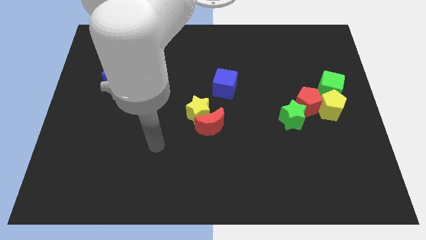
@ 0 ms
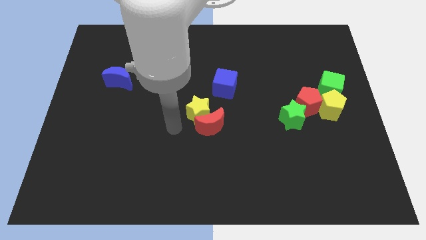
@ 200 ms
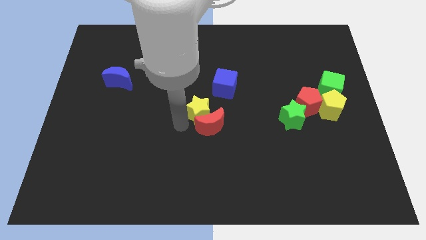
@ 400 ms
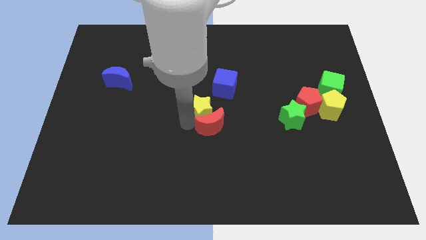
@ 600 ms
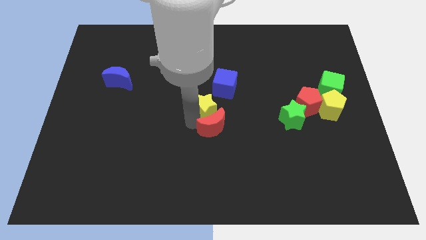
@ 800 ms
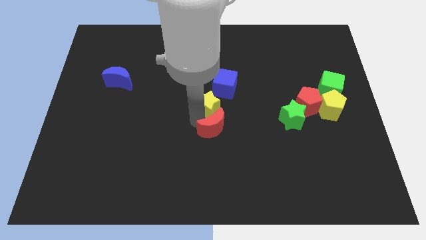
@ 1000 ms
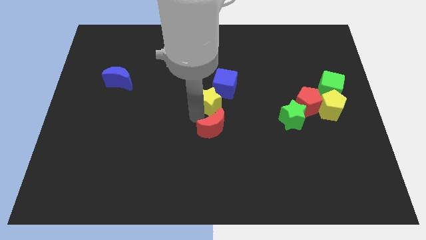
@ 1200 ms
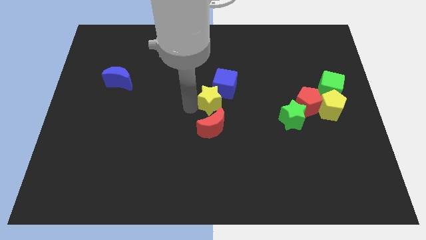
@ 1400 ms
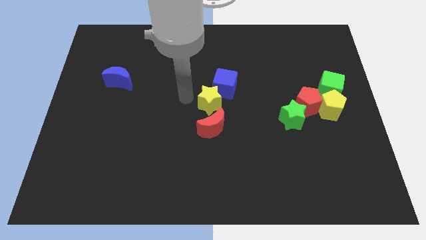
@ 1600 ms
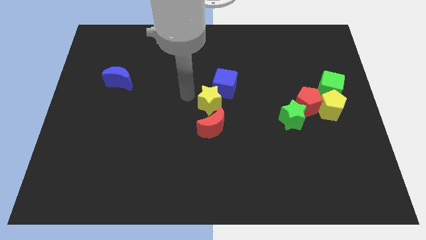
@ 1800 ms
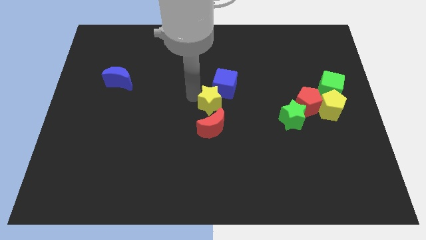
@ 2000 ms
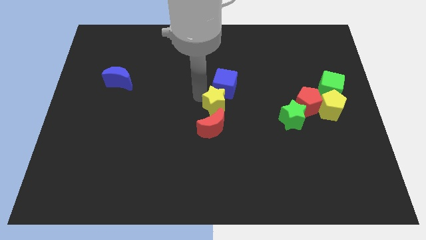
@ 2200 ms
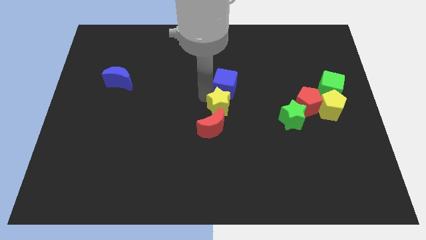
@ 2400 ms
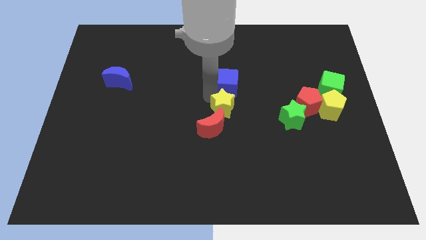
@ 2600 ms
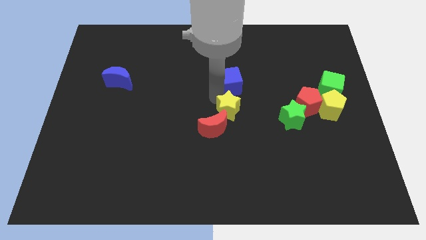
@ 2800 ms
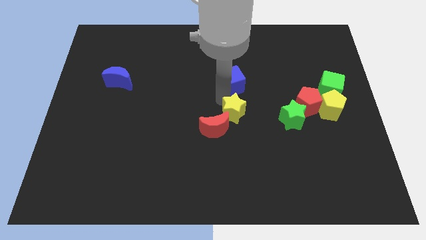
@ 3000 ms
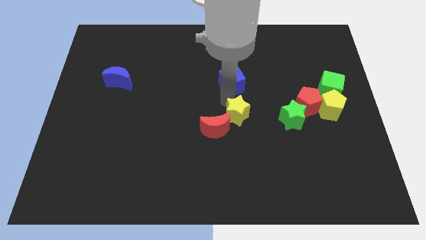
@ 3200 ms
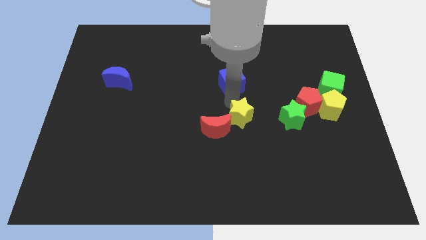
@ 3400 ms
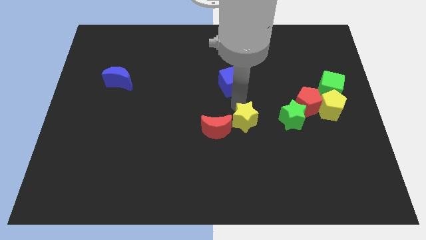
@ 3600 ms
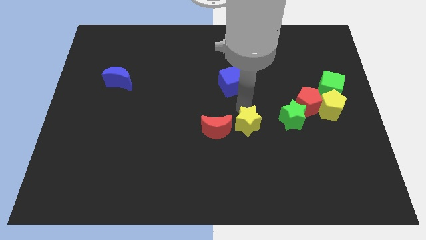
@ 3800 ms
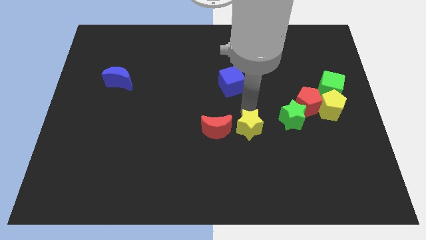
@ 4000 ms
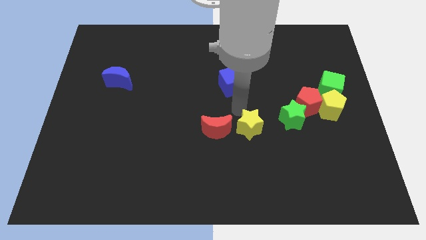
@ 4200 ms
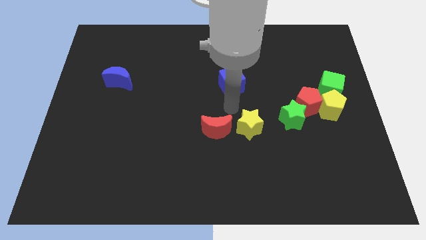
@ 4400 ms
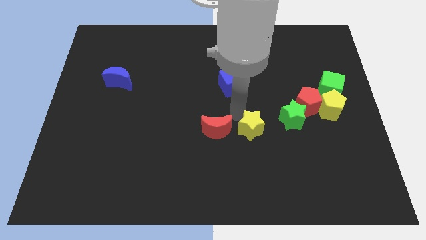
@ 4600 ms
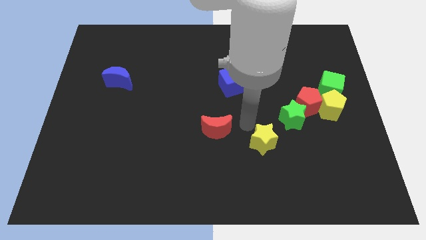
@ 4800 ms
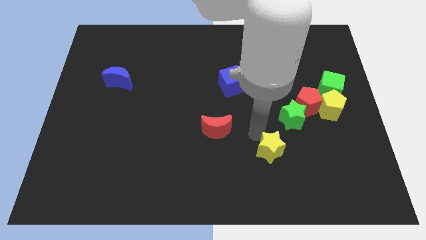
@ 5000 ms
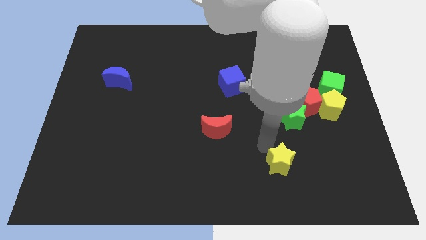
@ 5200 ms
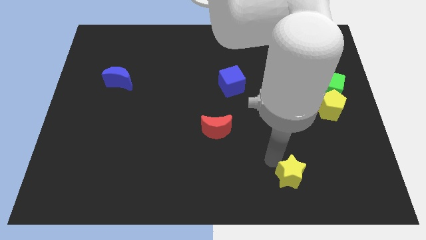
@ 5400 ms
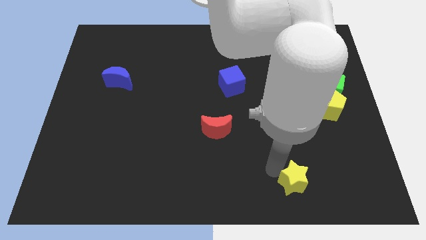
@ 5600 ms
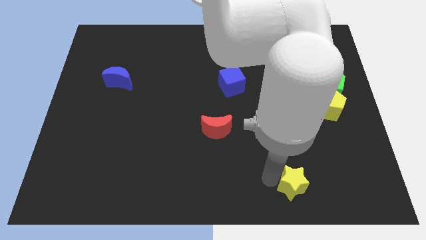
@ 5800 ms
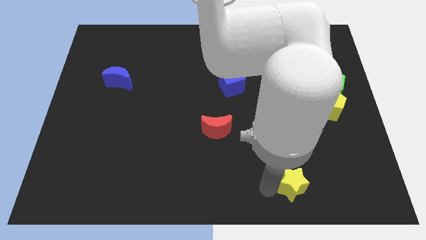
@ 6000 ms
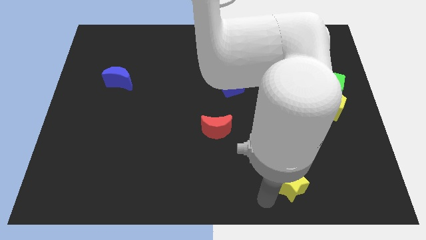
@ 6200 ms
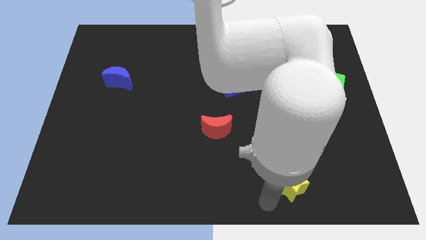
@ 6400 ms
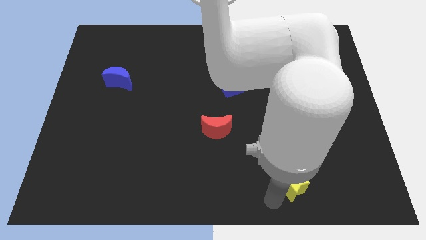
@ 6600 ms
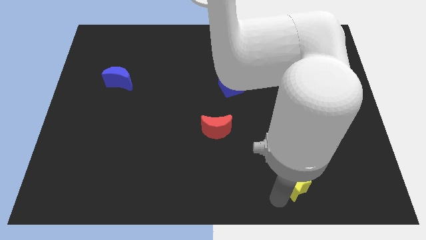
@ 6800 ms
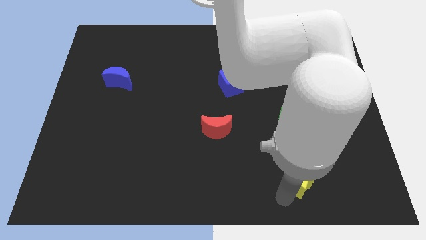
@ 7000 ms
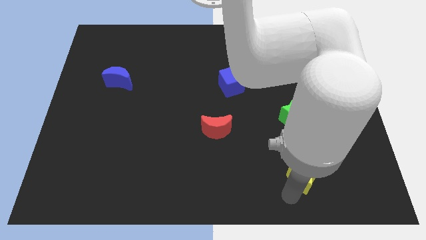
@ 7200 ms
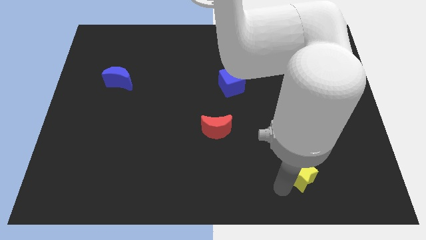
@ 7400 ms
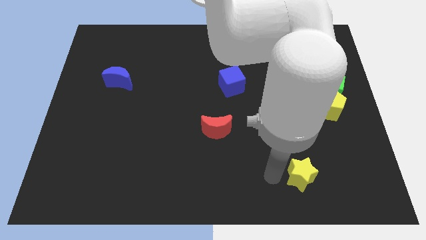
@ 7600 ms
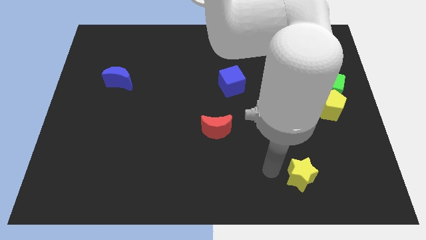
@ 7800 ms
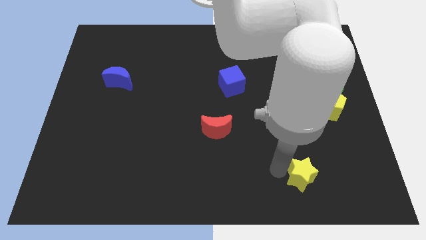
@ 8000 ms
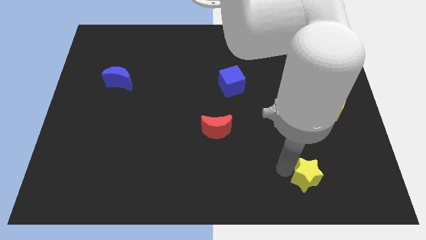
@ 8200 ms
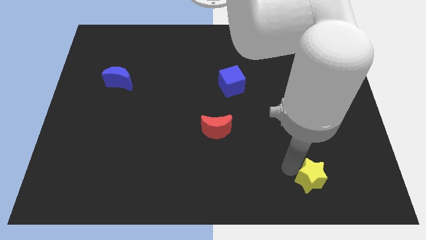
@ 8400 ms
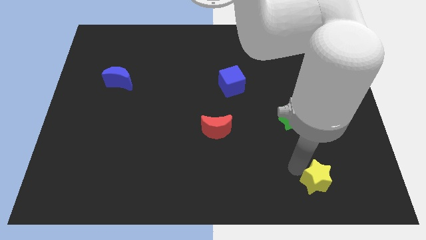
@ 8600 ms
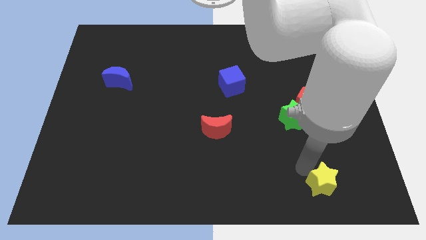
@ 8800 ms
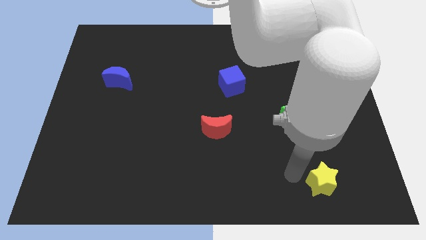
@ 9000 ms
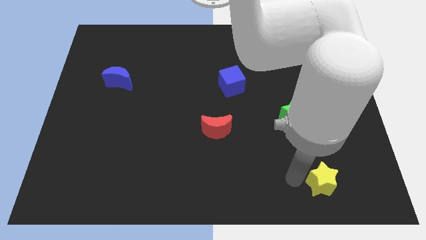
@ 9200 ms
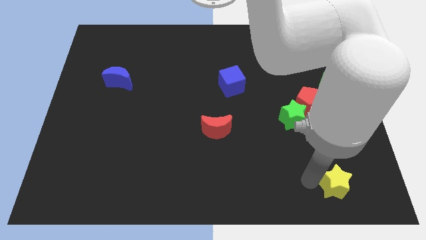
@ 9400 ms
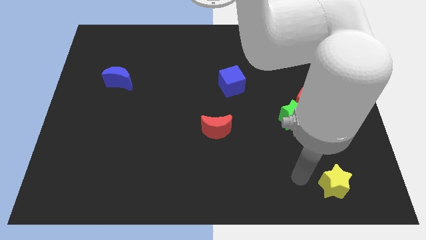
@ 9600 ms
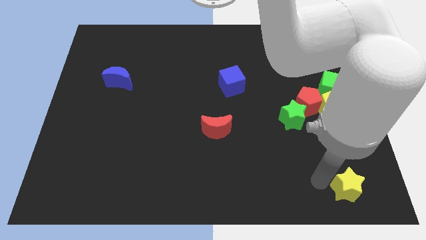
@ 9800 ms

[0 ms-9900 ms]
move the yellow star to the lower right corner

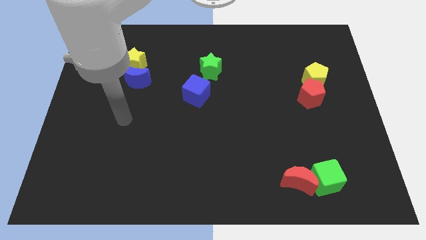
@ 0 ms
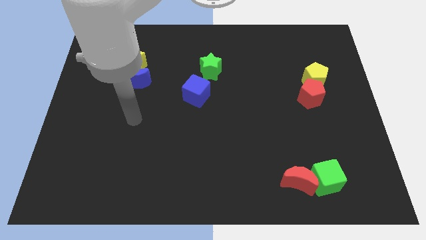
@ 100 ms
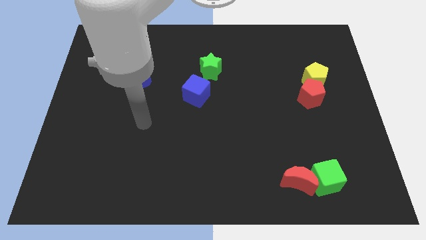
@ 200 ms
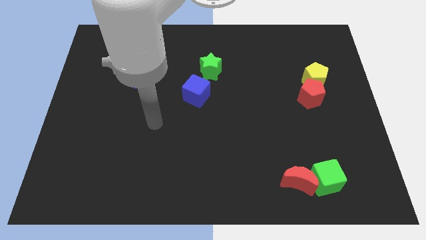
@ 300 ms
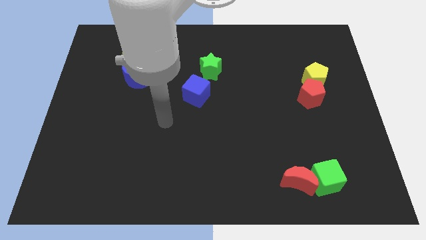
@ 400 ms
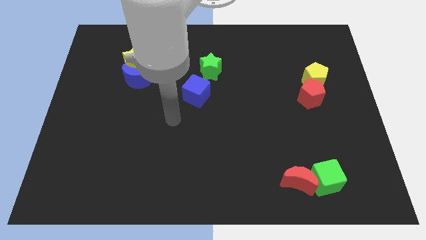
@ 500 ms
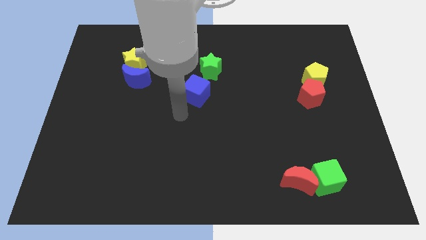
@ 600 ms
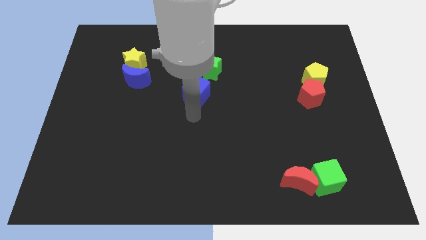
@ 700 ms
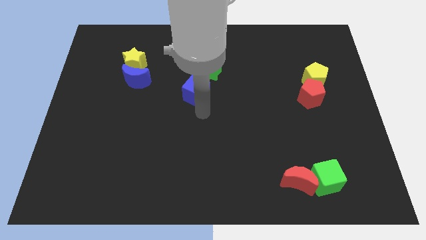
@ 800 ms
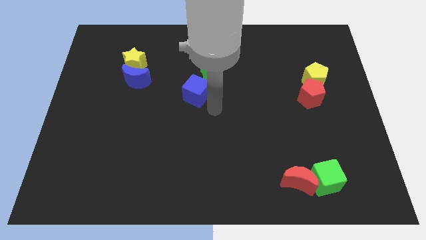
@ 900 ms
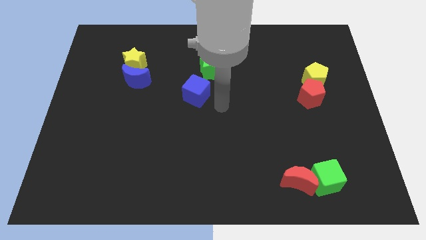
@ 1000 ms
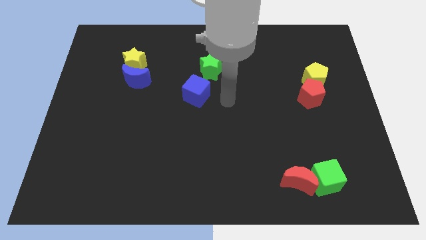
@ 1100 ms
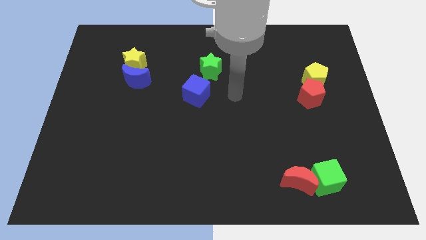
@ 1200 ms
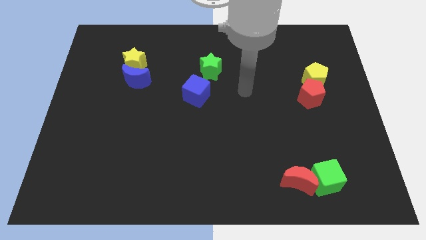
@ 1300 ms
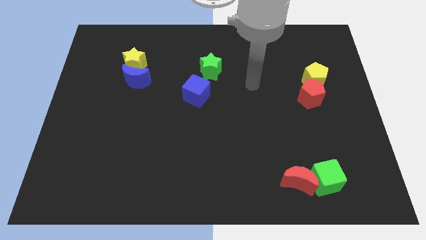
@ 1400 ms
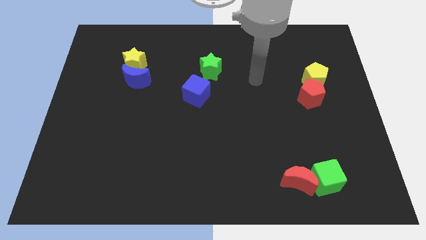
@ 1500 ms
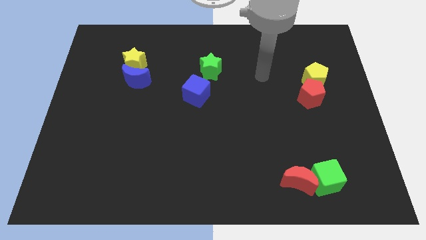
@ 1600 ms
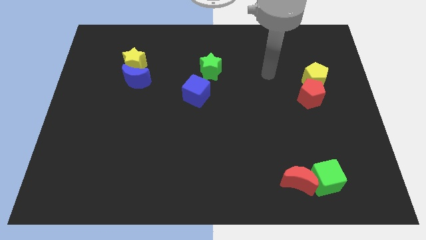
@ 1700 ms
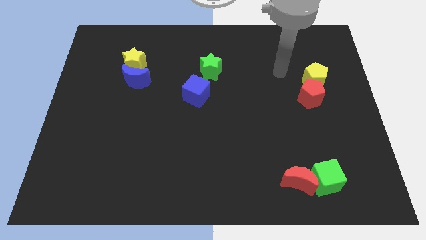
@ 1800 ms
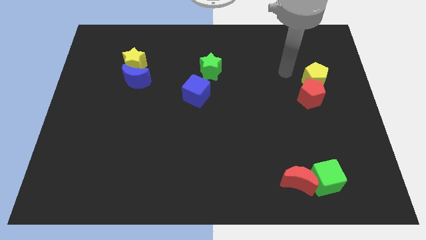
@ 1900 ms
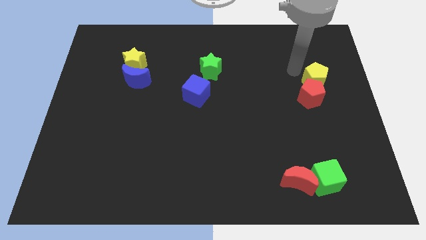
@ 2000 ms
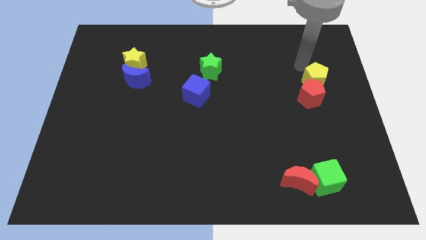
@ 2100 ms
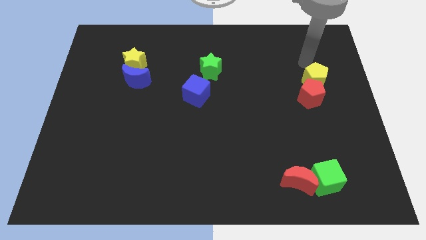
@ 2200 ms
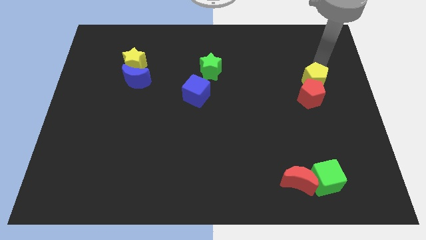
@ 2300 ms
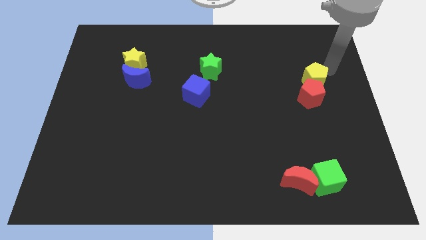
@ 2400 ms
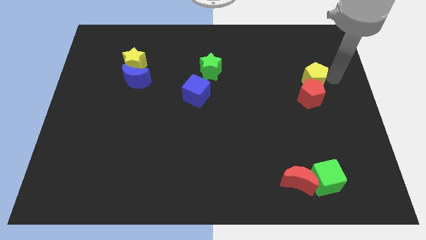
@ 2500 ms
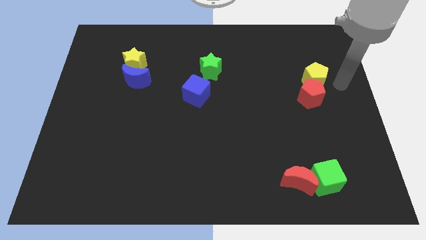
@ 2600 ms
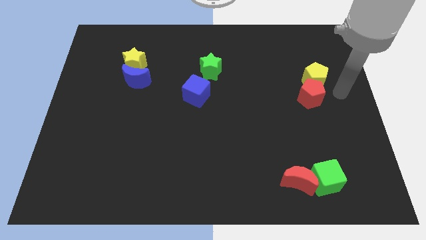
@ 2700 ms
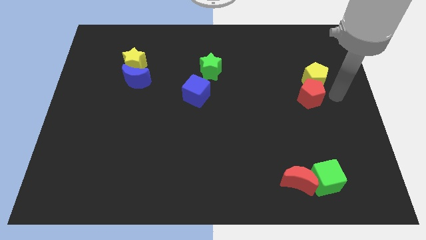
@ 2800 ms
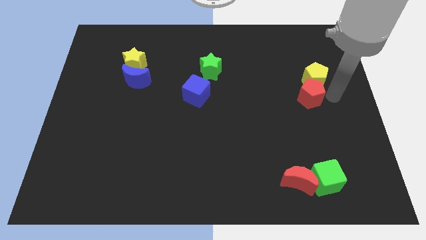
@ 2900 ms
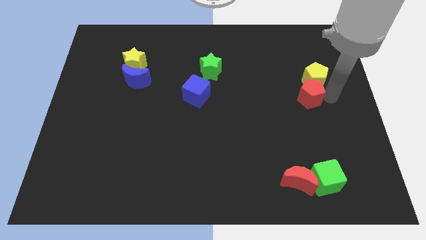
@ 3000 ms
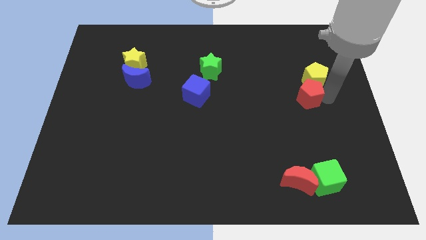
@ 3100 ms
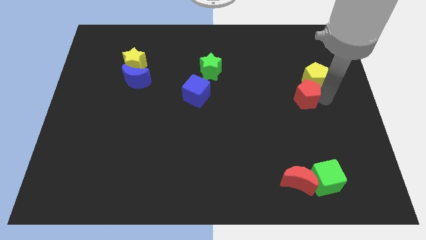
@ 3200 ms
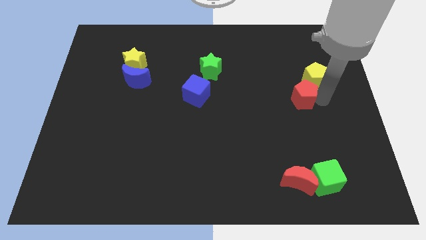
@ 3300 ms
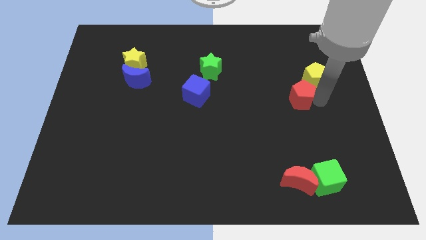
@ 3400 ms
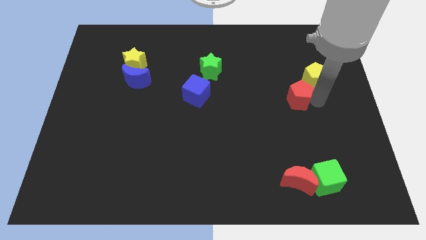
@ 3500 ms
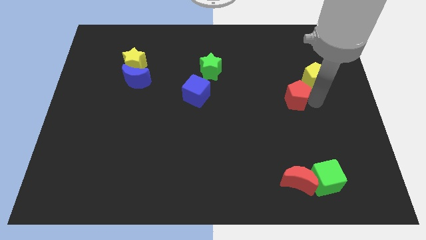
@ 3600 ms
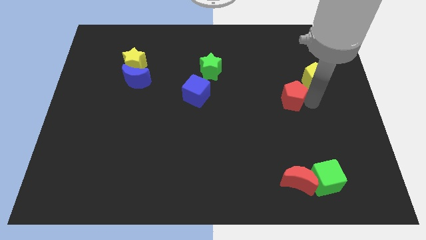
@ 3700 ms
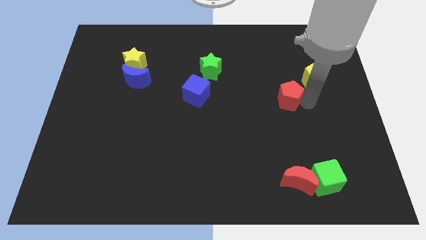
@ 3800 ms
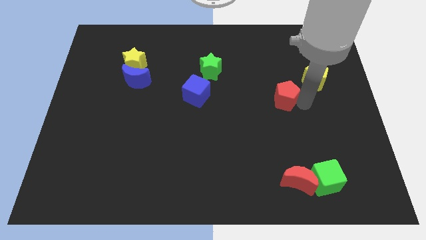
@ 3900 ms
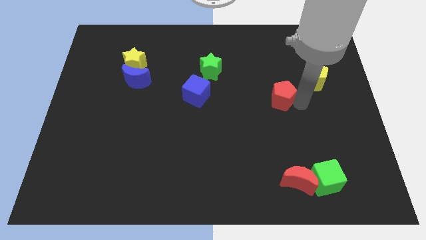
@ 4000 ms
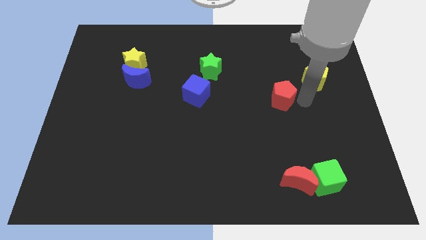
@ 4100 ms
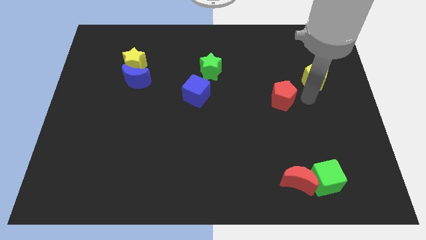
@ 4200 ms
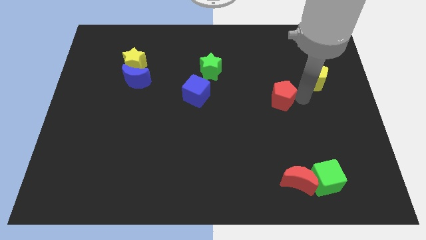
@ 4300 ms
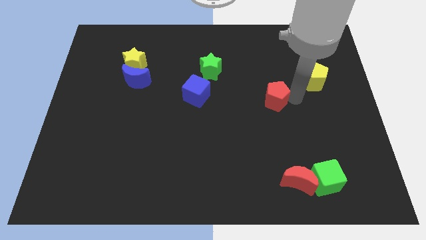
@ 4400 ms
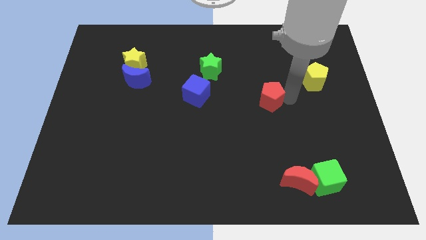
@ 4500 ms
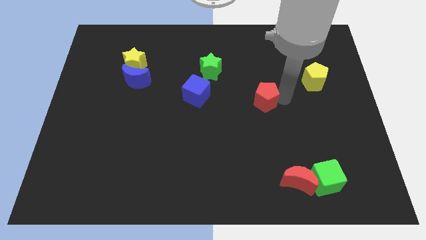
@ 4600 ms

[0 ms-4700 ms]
push the red pentagon to the middle of the board
